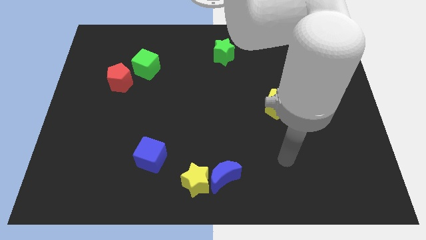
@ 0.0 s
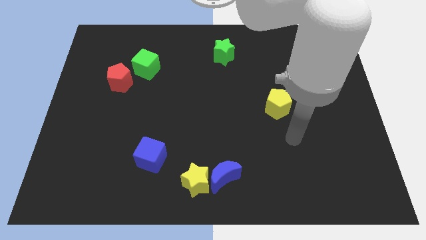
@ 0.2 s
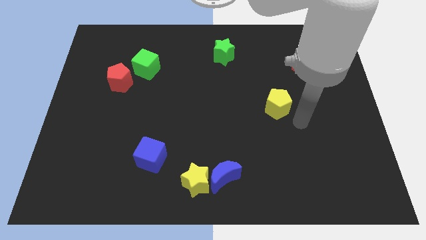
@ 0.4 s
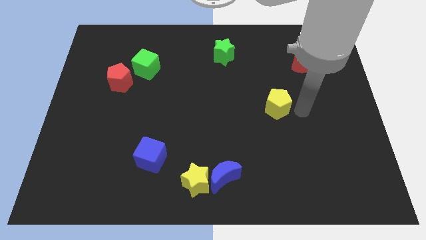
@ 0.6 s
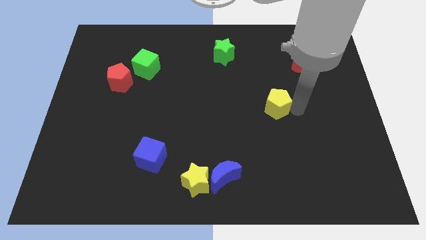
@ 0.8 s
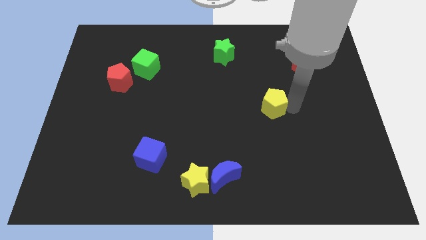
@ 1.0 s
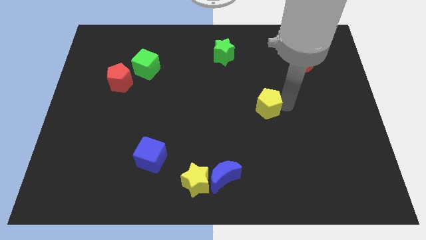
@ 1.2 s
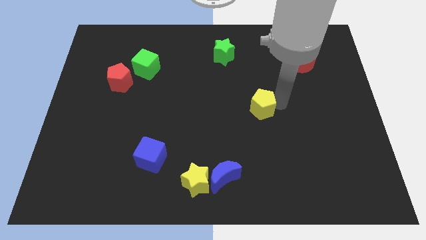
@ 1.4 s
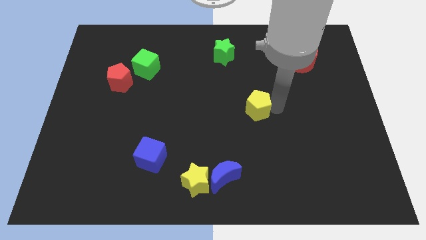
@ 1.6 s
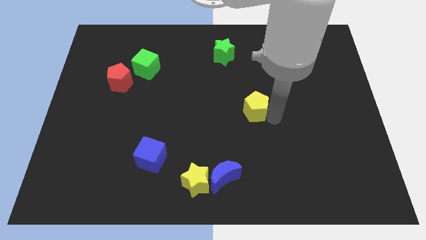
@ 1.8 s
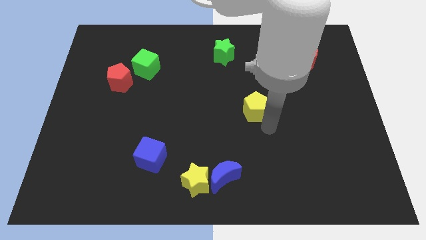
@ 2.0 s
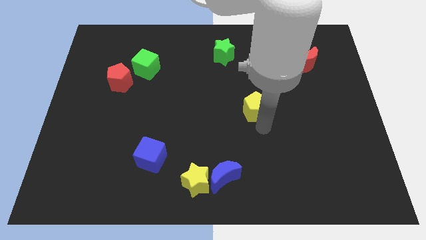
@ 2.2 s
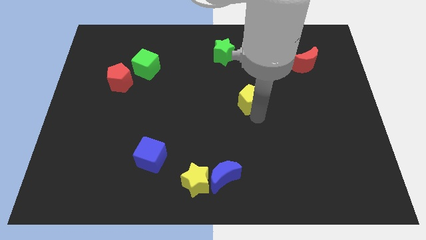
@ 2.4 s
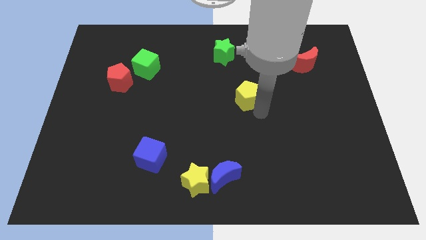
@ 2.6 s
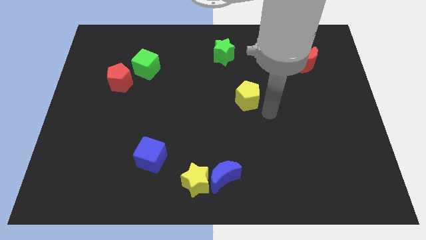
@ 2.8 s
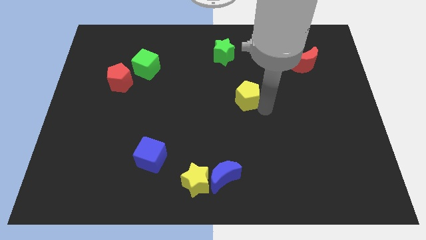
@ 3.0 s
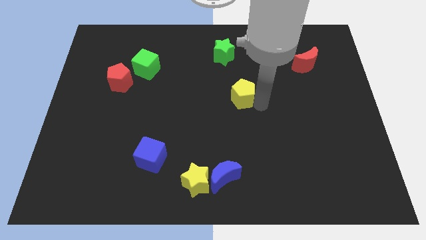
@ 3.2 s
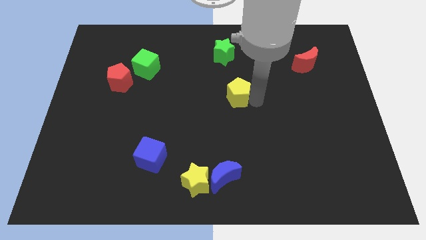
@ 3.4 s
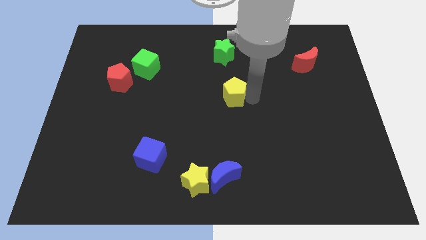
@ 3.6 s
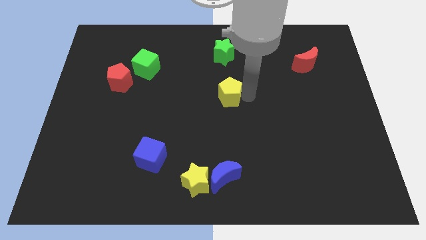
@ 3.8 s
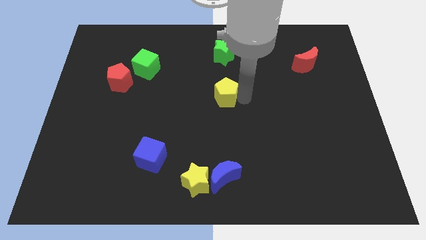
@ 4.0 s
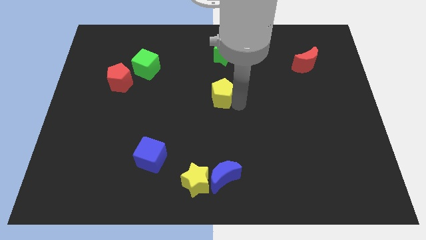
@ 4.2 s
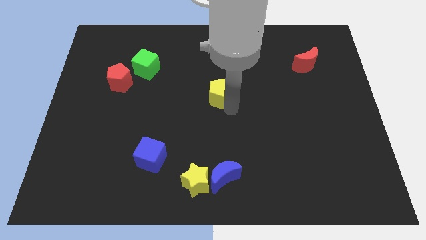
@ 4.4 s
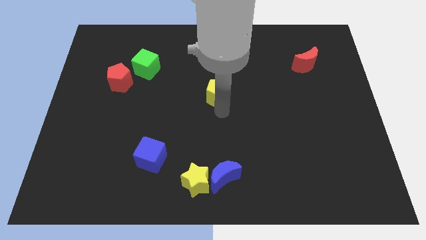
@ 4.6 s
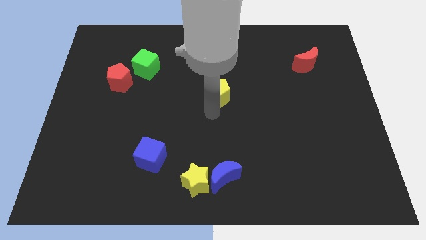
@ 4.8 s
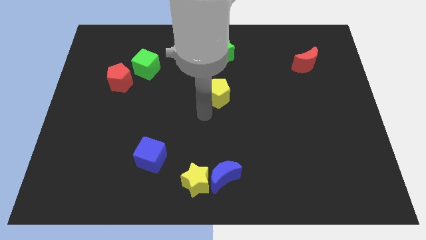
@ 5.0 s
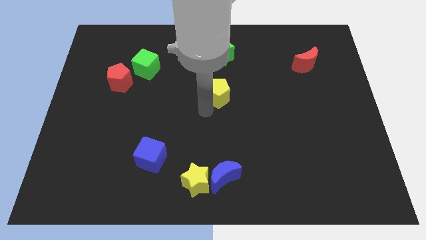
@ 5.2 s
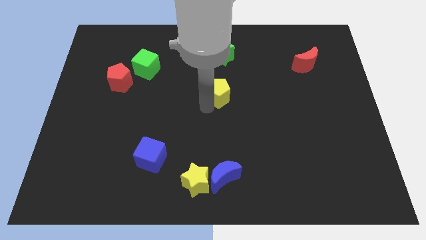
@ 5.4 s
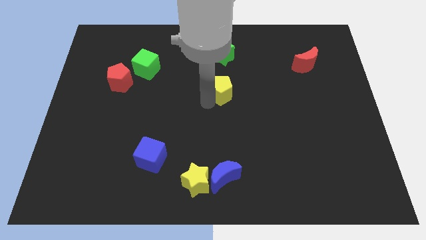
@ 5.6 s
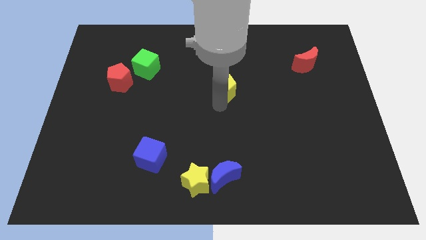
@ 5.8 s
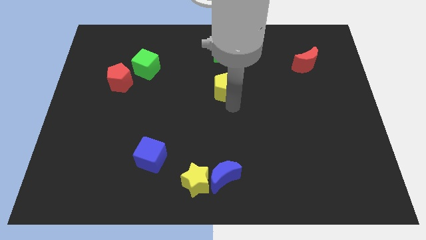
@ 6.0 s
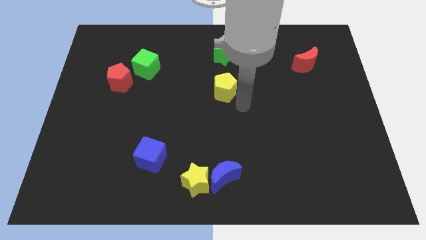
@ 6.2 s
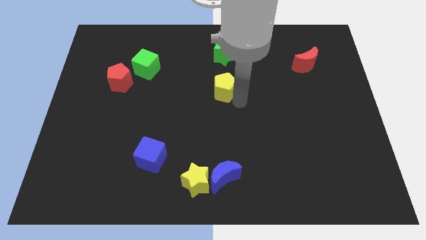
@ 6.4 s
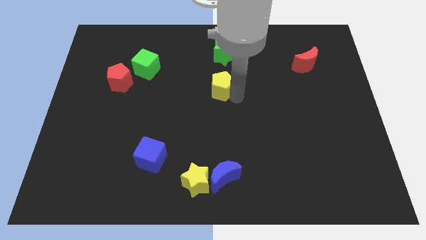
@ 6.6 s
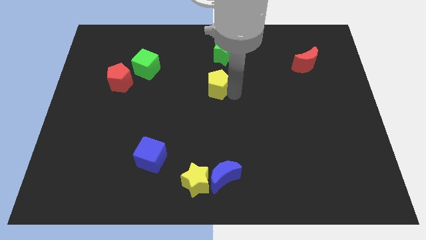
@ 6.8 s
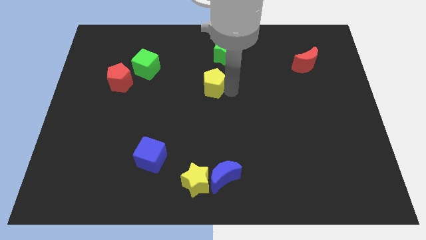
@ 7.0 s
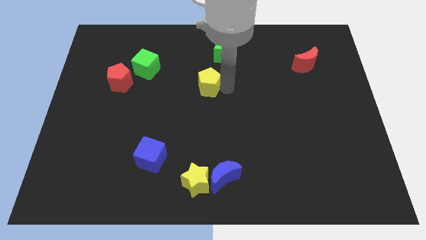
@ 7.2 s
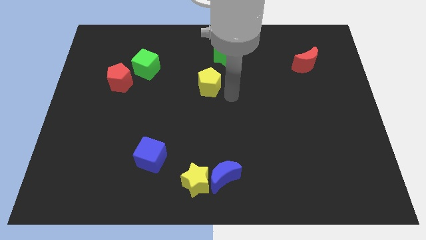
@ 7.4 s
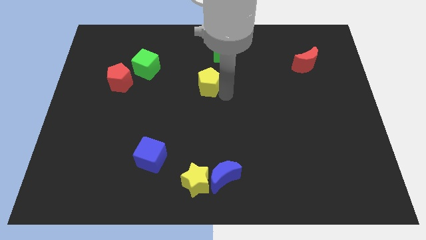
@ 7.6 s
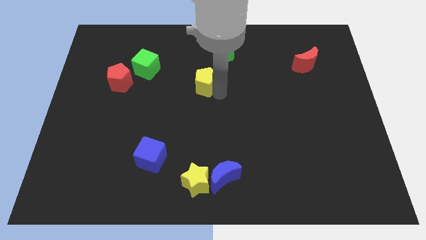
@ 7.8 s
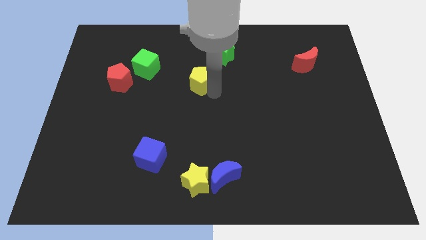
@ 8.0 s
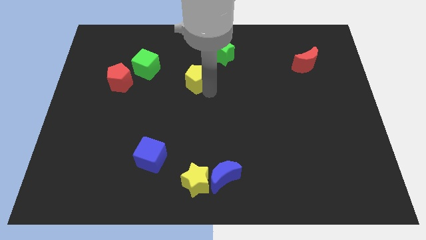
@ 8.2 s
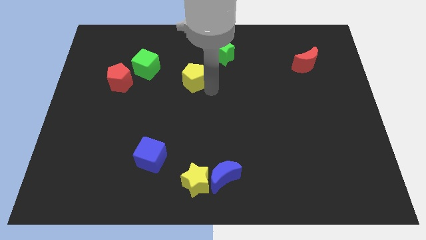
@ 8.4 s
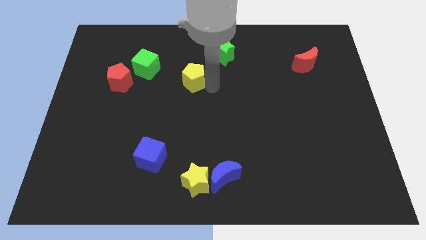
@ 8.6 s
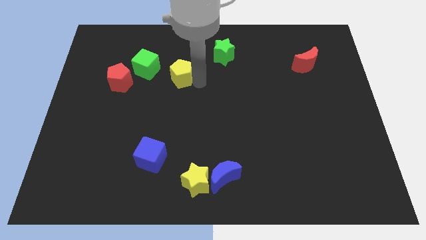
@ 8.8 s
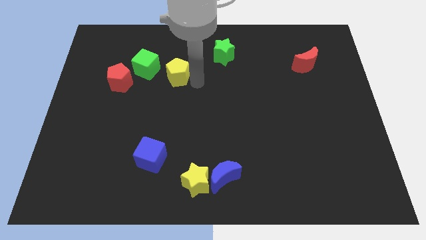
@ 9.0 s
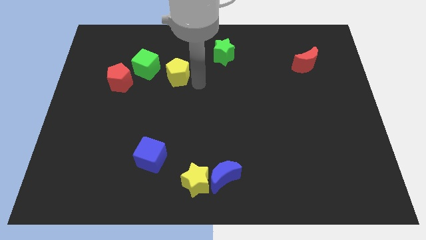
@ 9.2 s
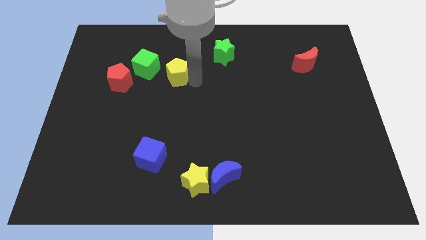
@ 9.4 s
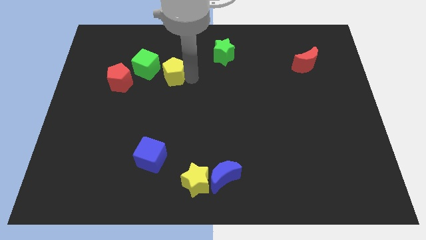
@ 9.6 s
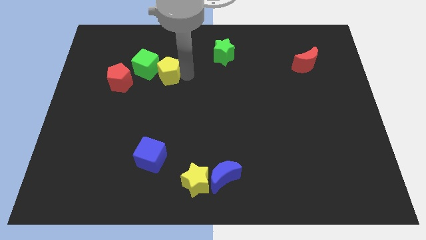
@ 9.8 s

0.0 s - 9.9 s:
push the yellow pentagon next to the green cube

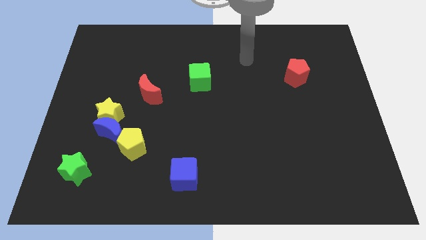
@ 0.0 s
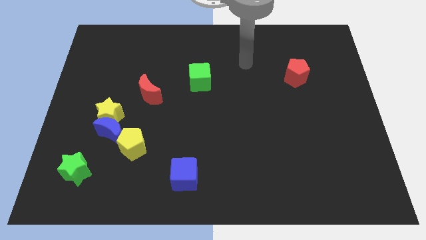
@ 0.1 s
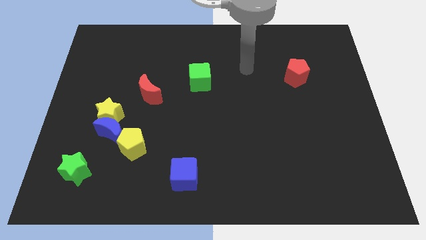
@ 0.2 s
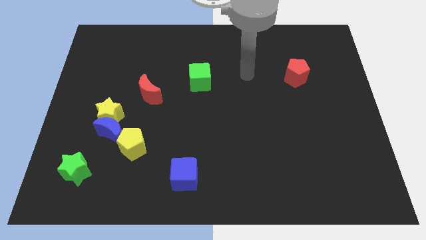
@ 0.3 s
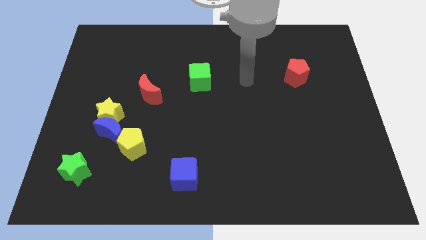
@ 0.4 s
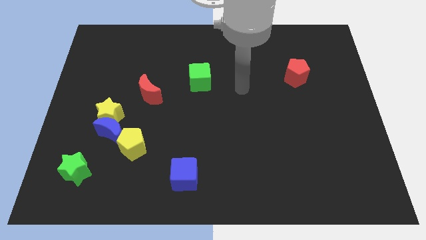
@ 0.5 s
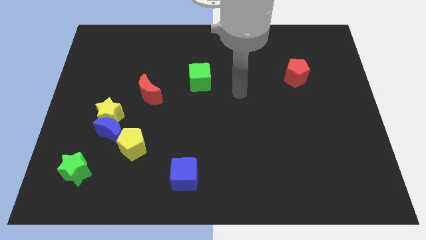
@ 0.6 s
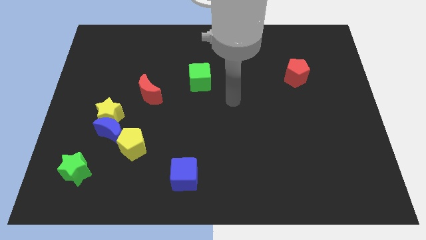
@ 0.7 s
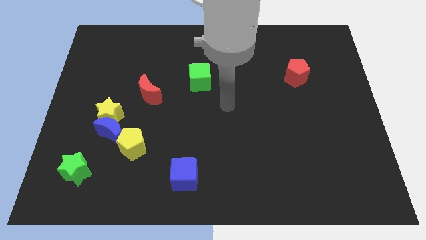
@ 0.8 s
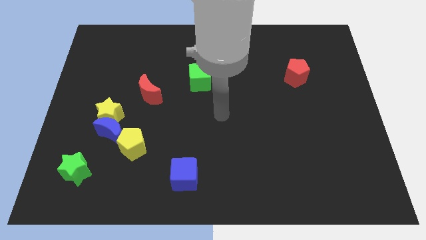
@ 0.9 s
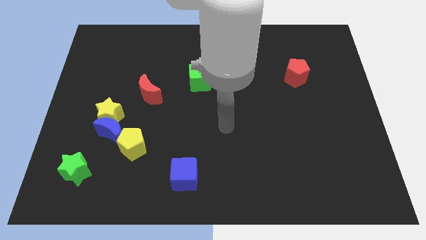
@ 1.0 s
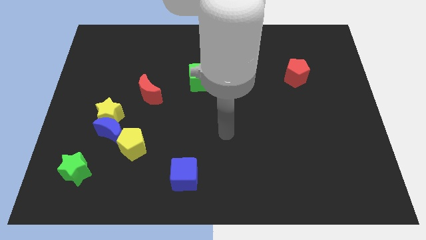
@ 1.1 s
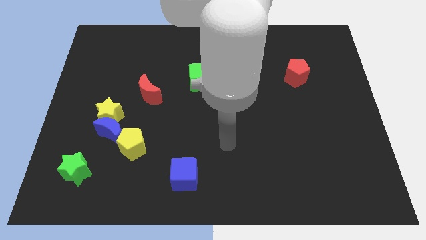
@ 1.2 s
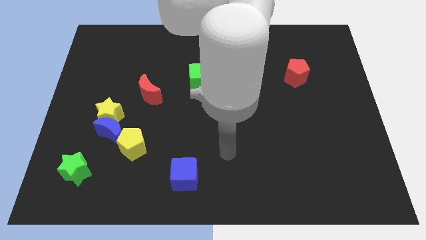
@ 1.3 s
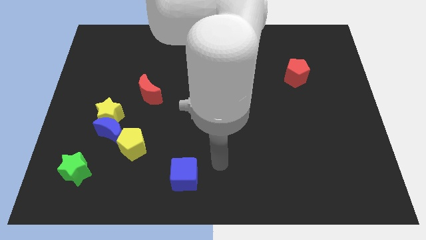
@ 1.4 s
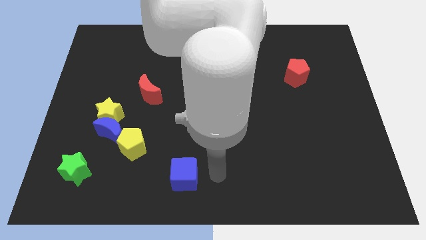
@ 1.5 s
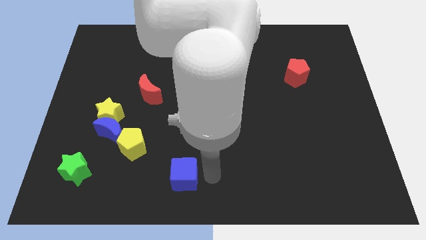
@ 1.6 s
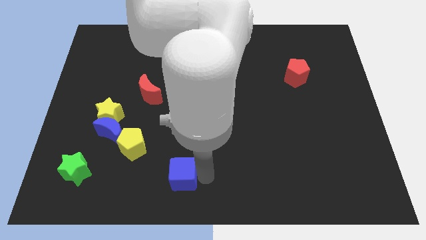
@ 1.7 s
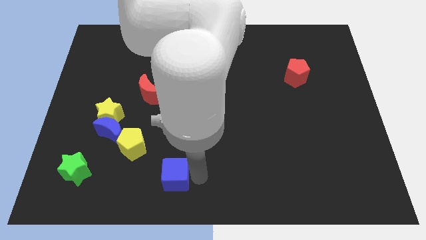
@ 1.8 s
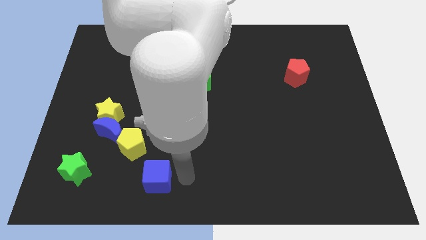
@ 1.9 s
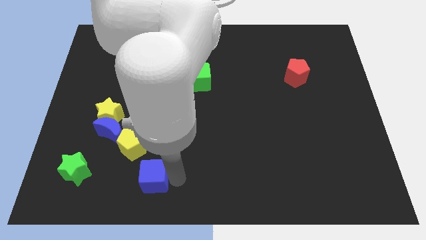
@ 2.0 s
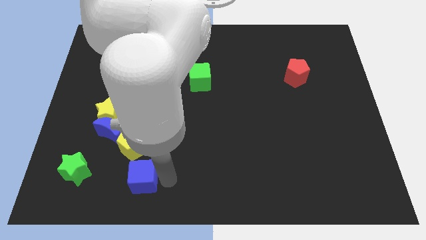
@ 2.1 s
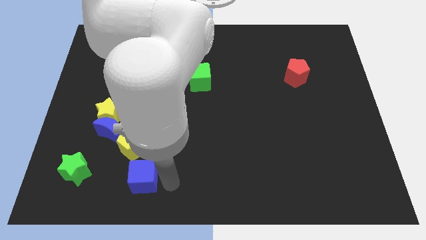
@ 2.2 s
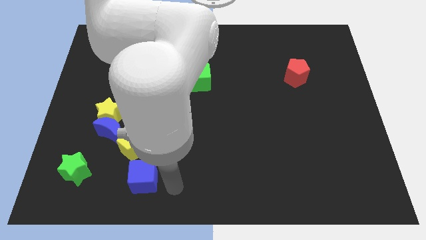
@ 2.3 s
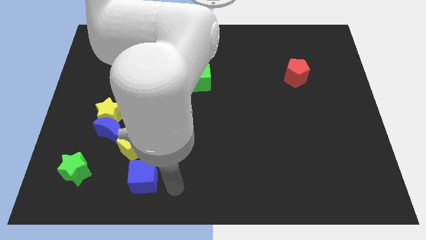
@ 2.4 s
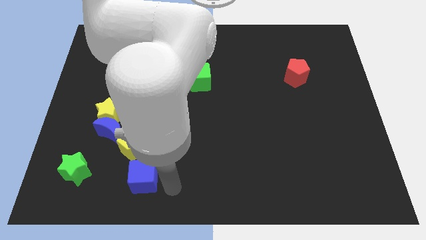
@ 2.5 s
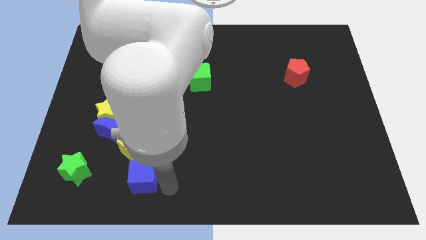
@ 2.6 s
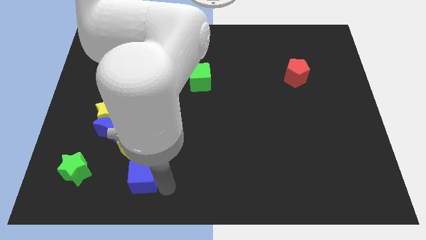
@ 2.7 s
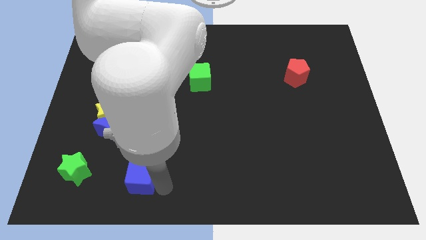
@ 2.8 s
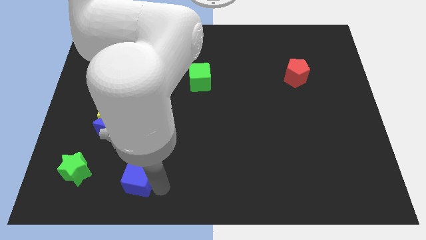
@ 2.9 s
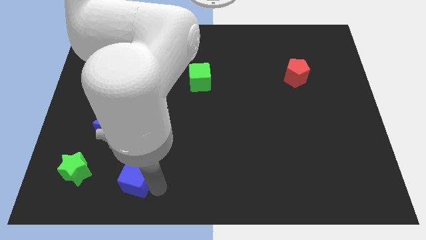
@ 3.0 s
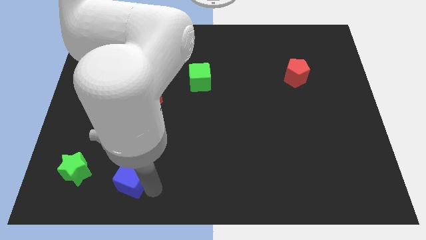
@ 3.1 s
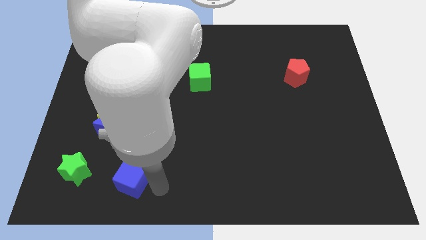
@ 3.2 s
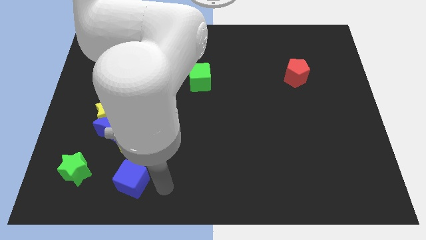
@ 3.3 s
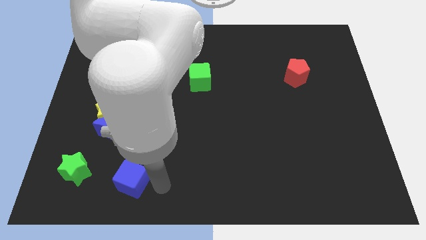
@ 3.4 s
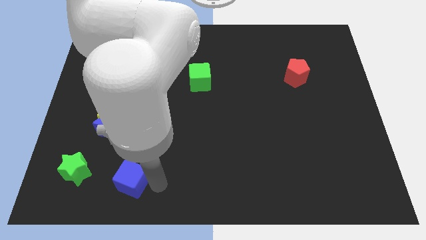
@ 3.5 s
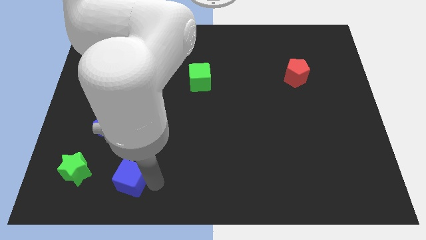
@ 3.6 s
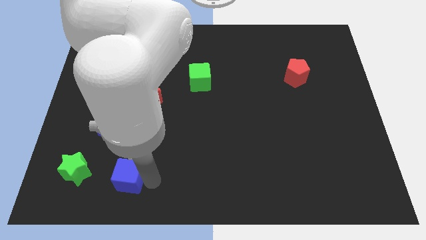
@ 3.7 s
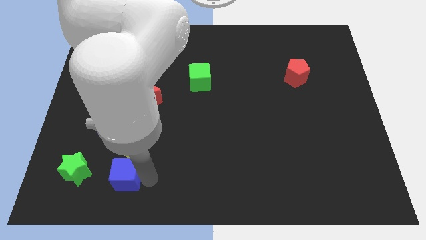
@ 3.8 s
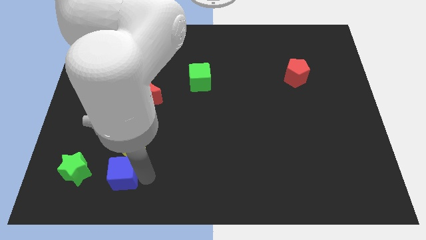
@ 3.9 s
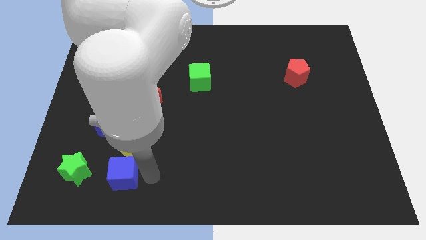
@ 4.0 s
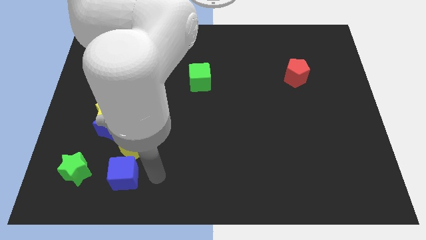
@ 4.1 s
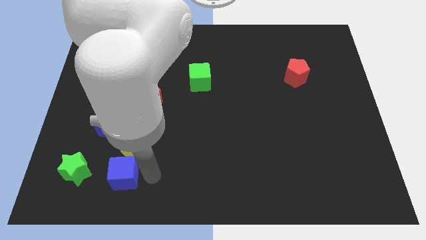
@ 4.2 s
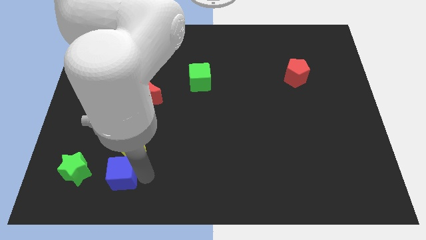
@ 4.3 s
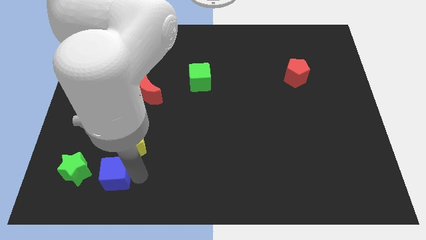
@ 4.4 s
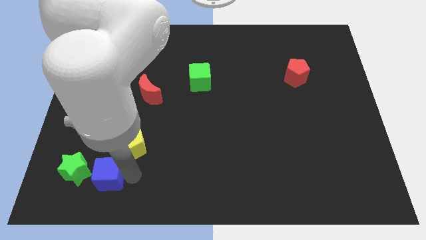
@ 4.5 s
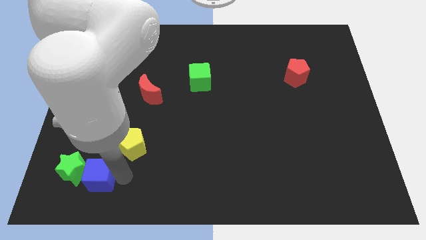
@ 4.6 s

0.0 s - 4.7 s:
slide the blue cube to the green star
